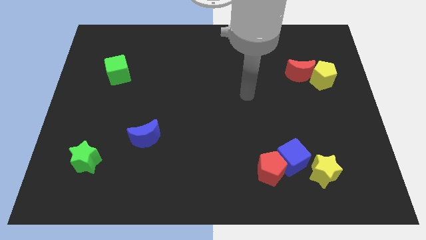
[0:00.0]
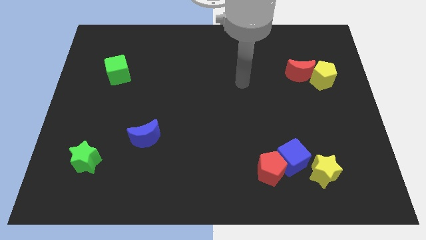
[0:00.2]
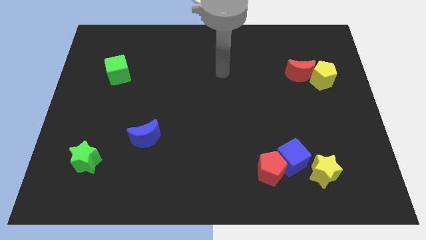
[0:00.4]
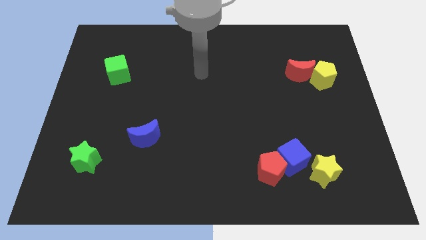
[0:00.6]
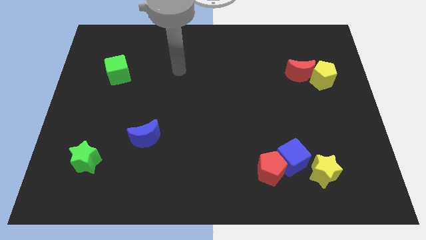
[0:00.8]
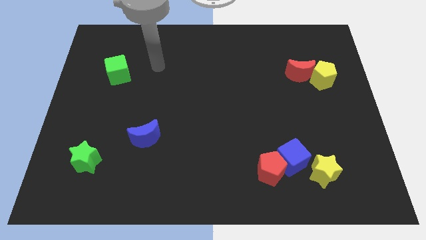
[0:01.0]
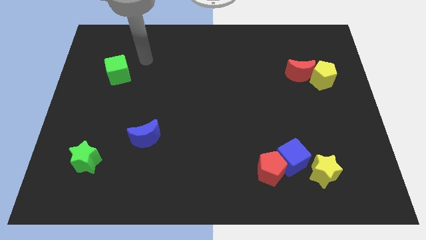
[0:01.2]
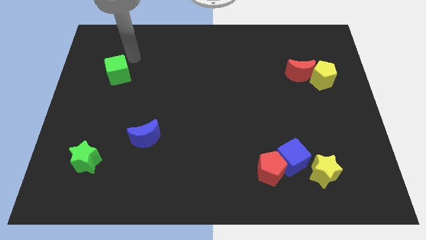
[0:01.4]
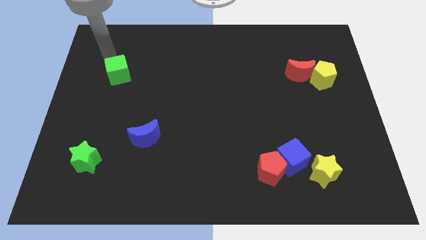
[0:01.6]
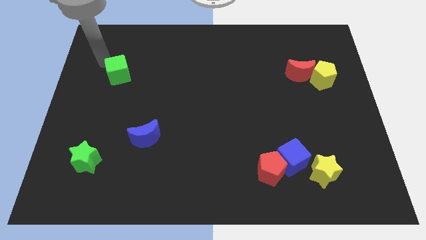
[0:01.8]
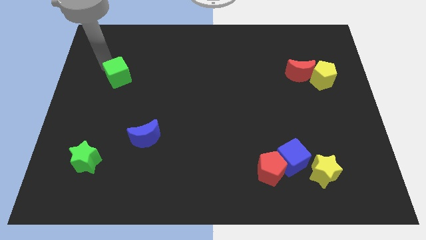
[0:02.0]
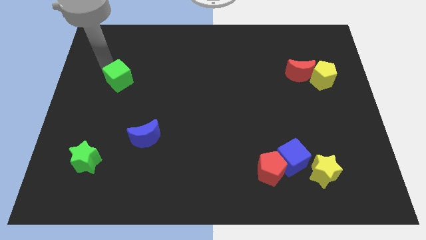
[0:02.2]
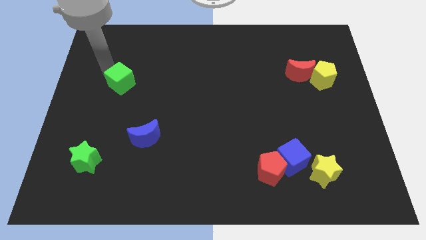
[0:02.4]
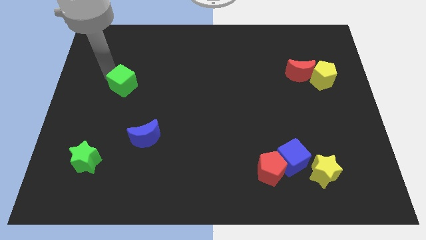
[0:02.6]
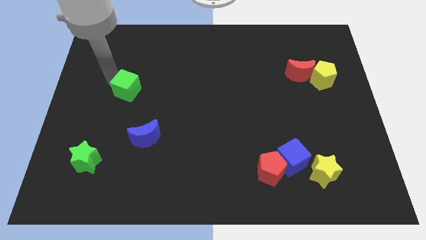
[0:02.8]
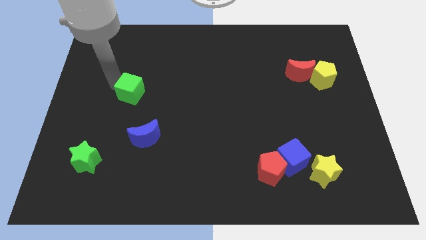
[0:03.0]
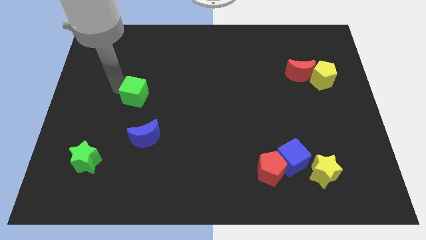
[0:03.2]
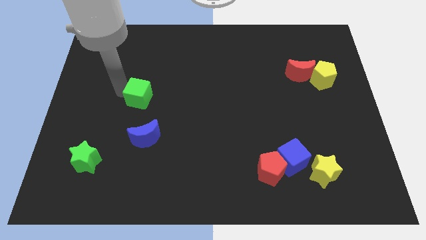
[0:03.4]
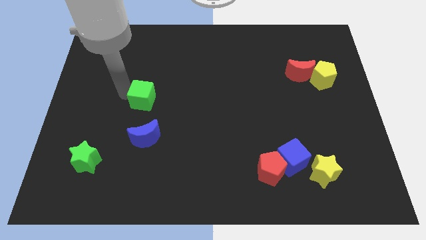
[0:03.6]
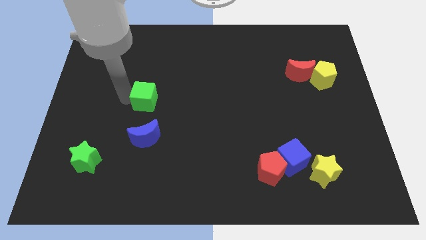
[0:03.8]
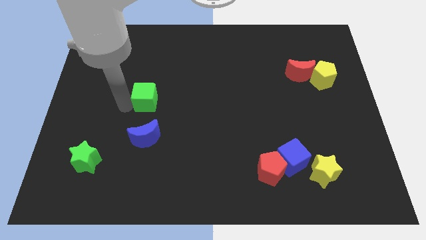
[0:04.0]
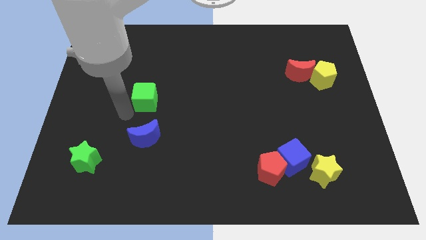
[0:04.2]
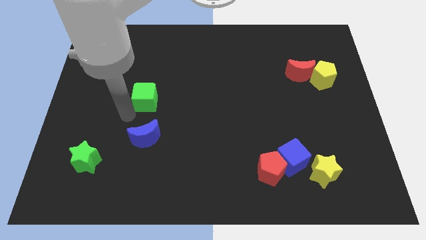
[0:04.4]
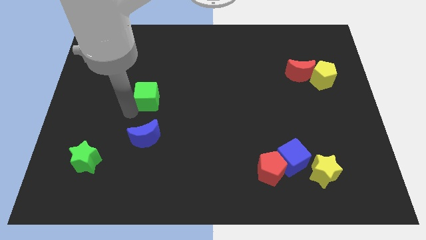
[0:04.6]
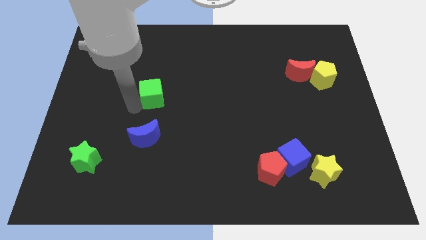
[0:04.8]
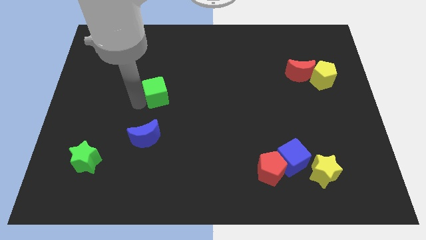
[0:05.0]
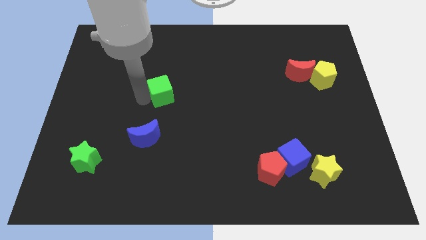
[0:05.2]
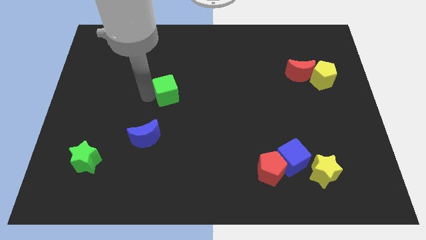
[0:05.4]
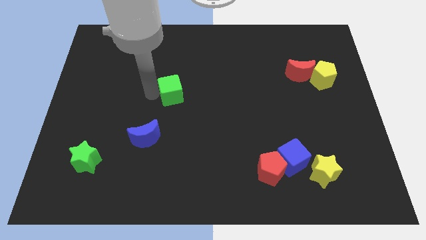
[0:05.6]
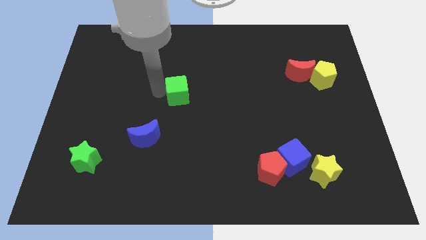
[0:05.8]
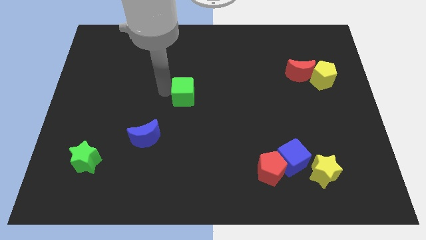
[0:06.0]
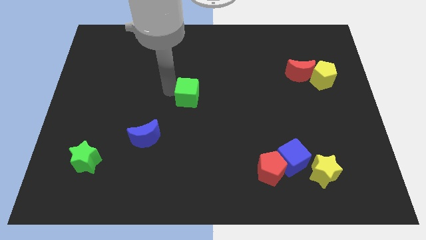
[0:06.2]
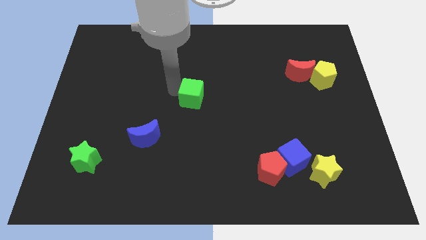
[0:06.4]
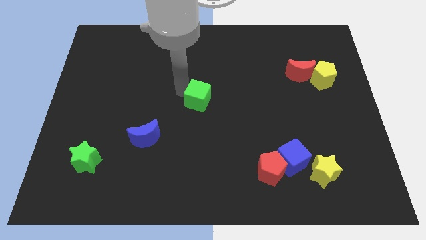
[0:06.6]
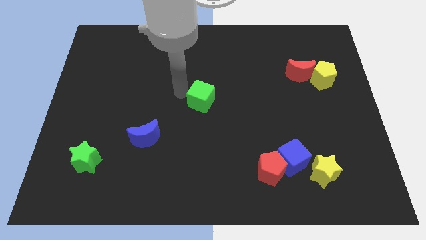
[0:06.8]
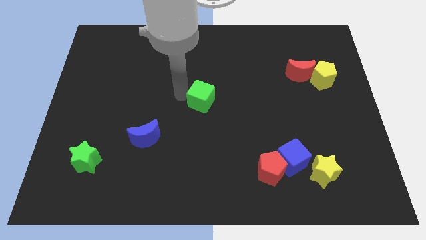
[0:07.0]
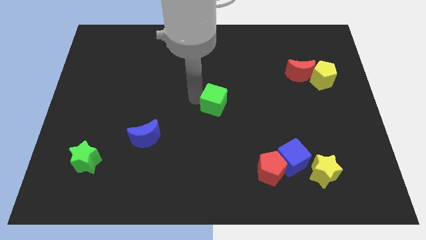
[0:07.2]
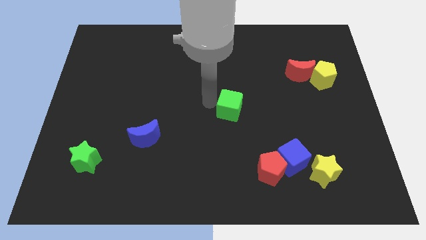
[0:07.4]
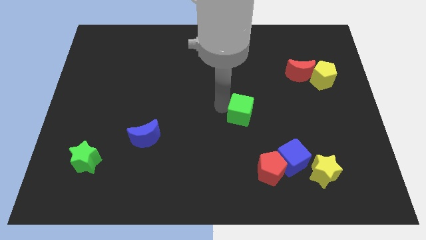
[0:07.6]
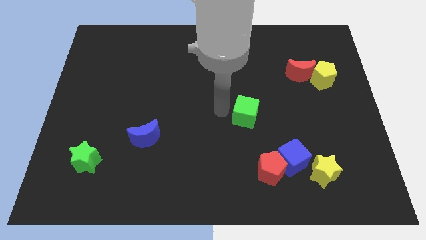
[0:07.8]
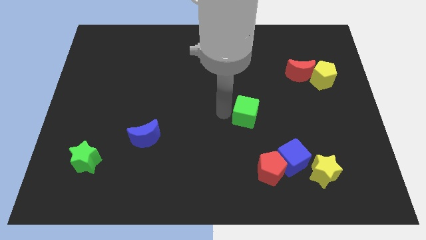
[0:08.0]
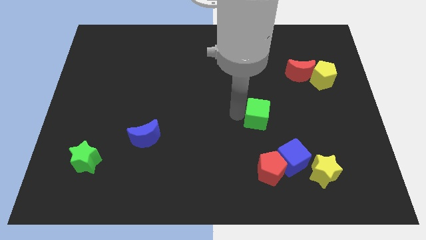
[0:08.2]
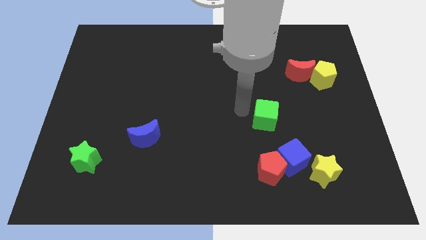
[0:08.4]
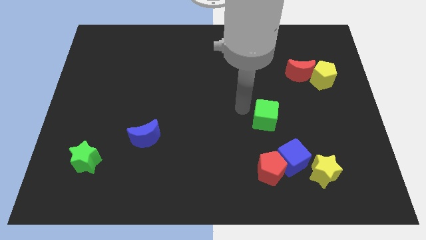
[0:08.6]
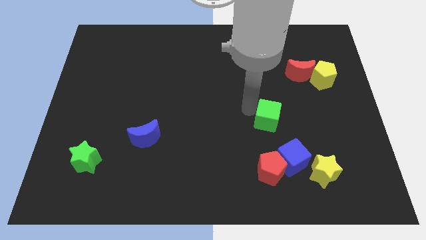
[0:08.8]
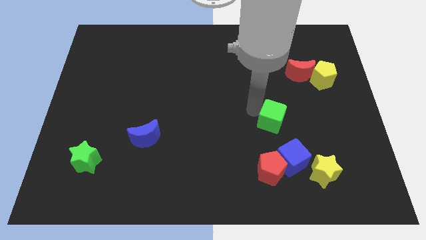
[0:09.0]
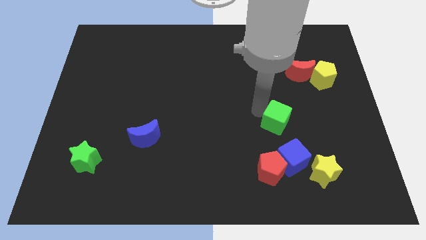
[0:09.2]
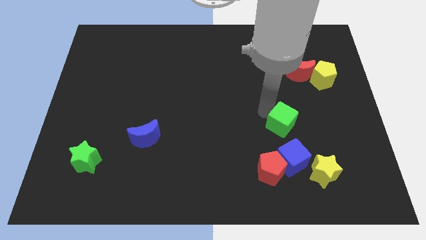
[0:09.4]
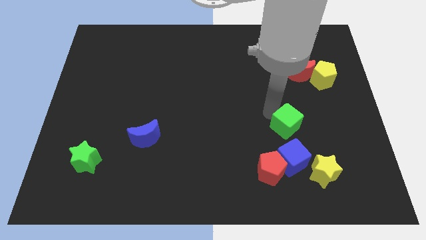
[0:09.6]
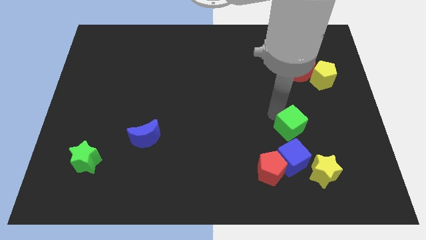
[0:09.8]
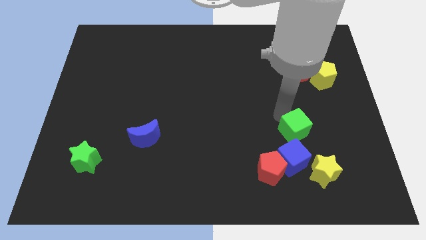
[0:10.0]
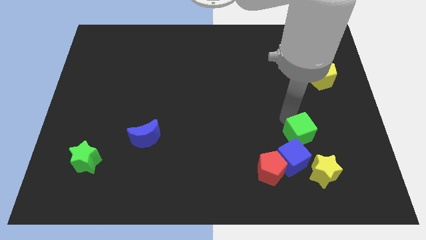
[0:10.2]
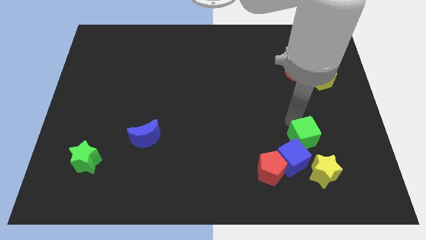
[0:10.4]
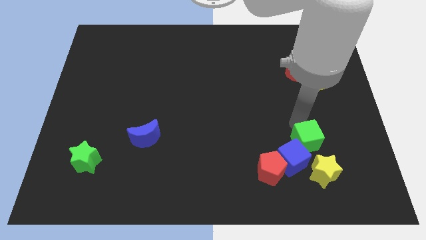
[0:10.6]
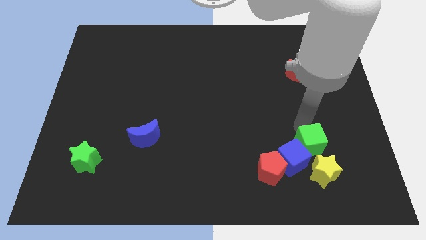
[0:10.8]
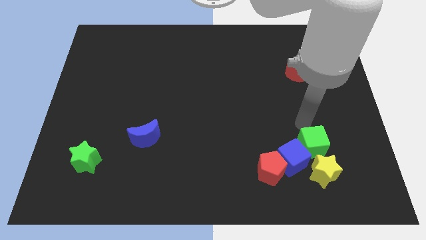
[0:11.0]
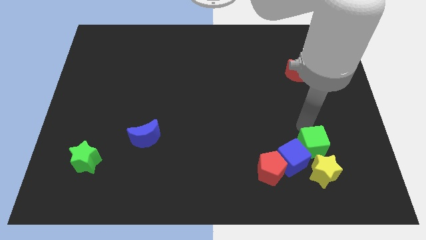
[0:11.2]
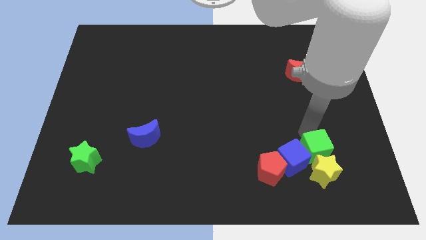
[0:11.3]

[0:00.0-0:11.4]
slide the green cube next to the yellow star

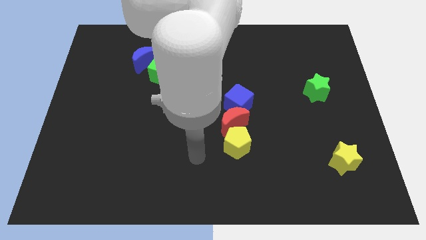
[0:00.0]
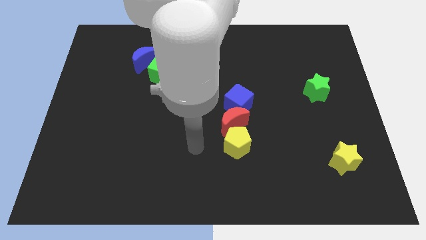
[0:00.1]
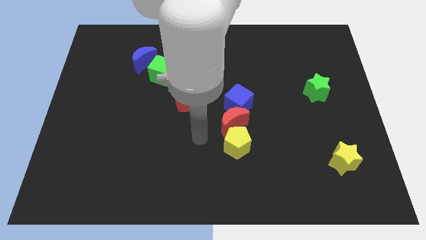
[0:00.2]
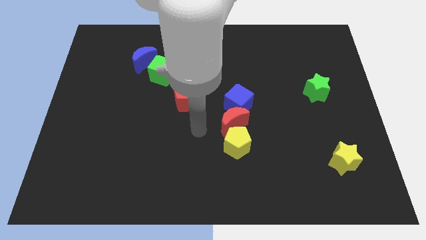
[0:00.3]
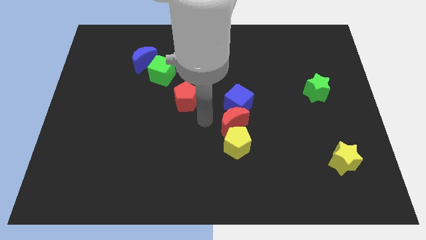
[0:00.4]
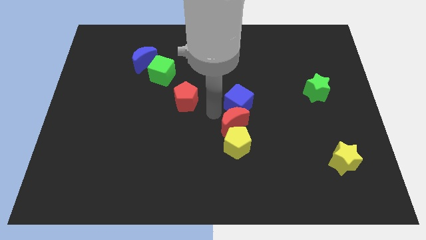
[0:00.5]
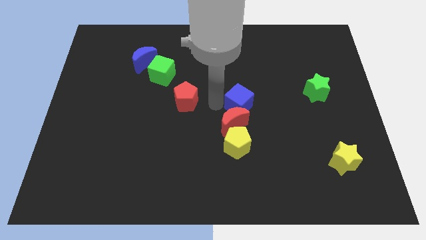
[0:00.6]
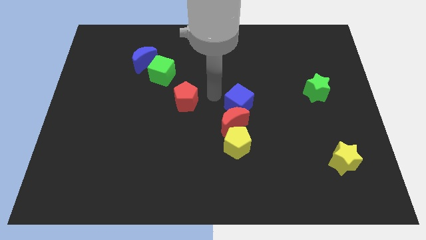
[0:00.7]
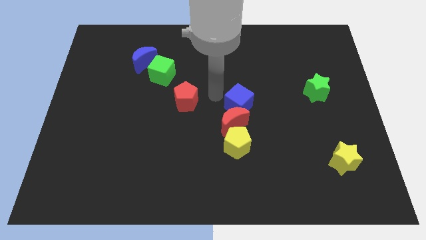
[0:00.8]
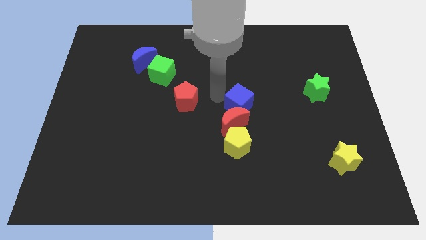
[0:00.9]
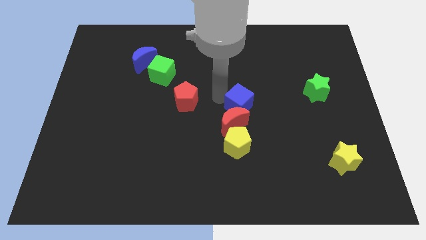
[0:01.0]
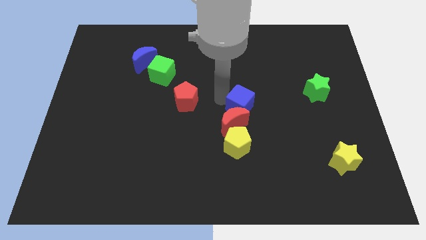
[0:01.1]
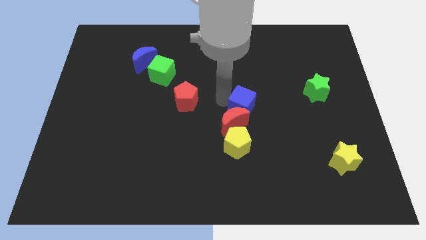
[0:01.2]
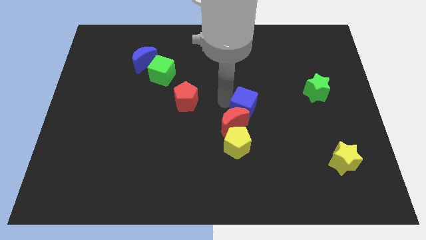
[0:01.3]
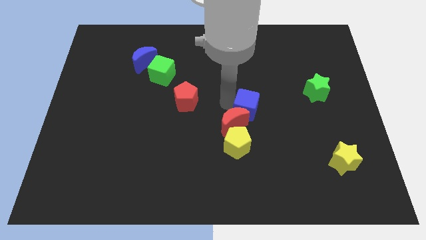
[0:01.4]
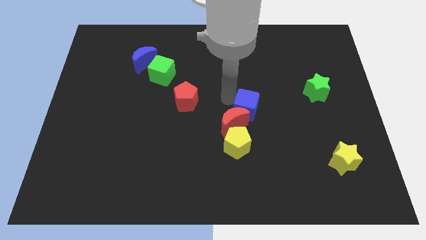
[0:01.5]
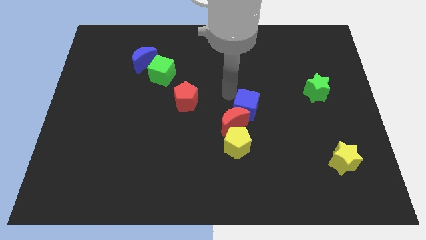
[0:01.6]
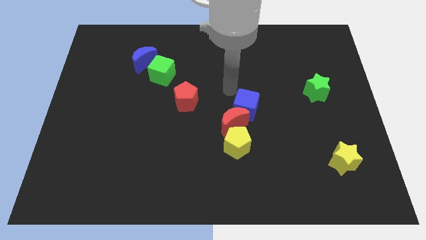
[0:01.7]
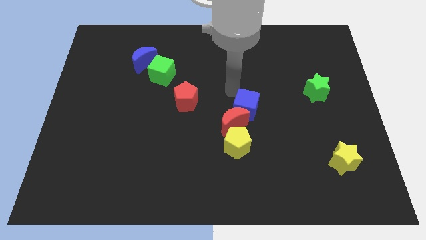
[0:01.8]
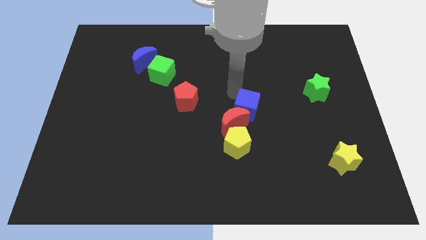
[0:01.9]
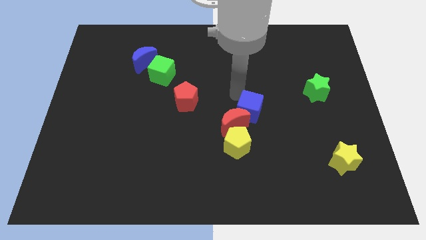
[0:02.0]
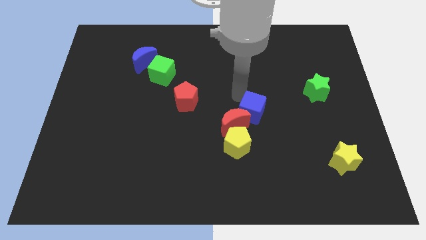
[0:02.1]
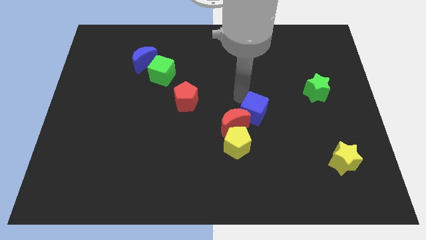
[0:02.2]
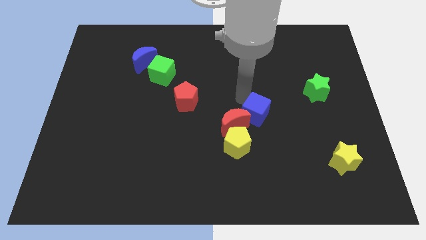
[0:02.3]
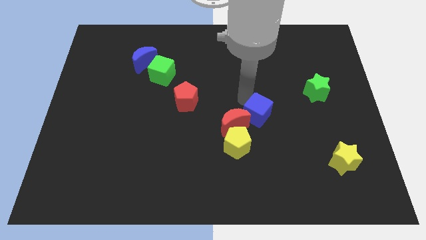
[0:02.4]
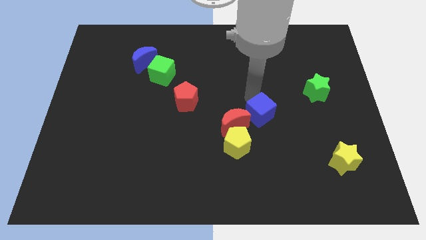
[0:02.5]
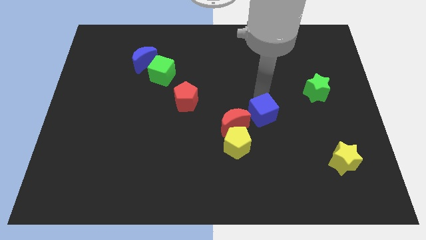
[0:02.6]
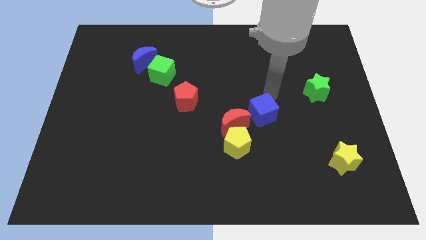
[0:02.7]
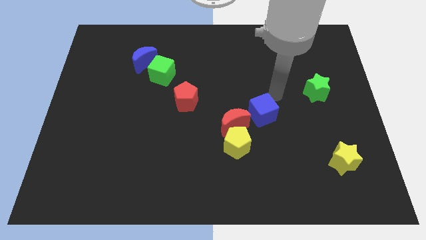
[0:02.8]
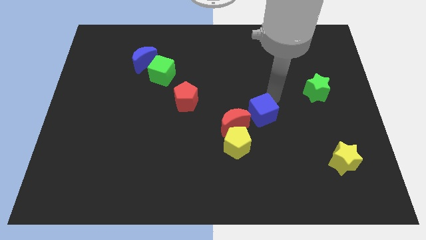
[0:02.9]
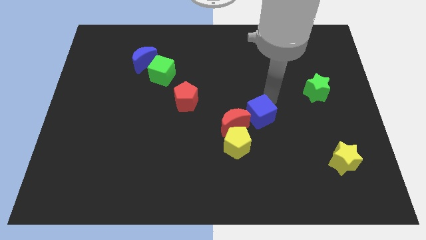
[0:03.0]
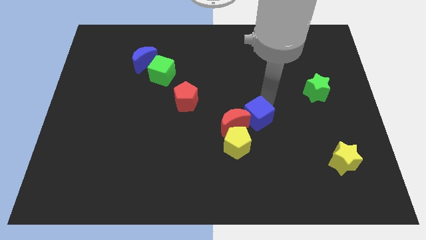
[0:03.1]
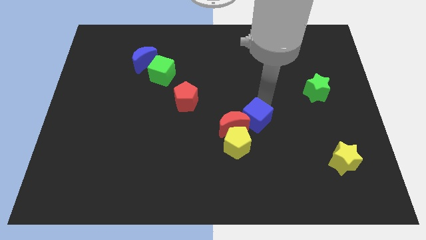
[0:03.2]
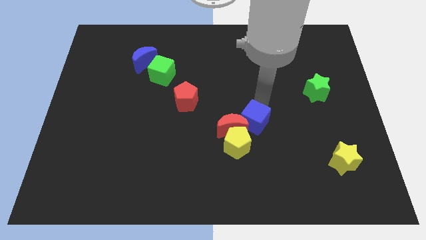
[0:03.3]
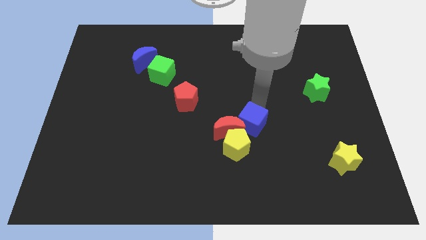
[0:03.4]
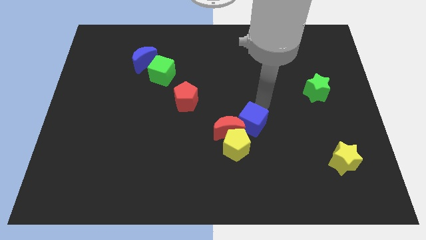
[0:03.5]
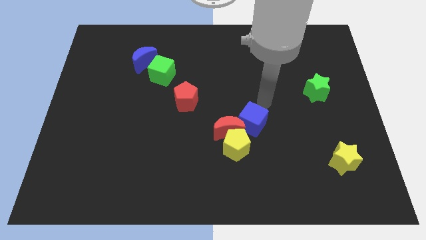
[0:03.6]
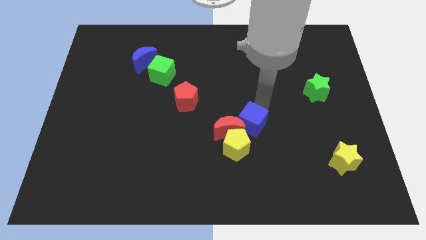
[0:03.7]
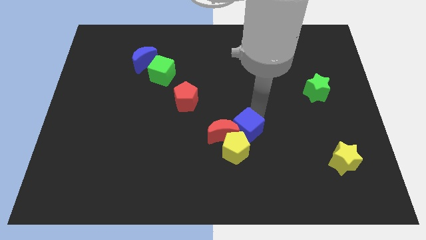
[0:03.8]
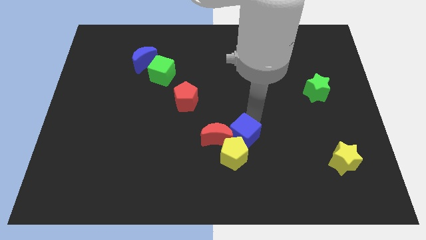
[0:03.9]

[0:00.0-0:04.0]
put the blue cube close to the yellow pentagon
